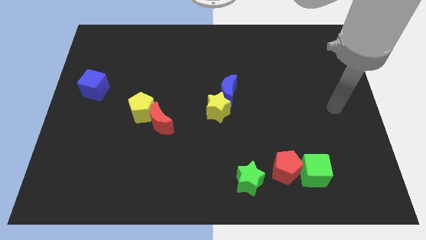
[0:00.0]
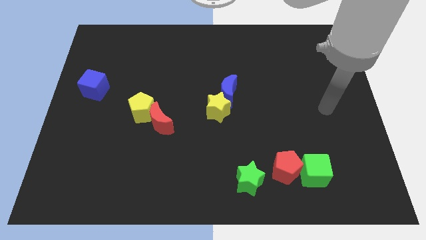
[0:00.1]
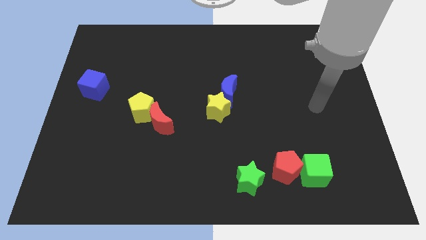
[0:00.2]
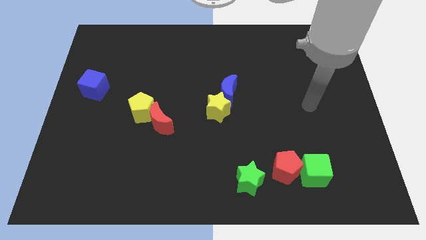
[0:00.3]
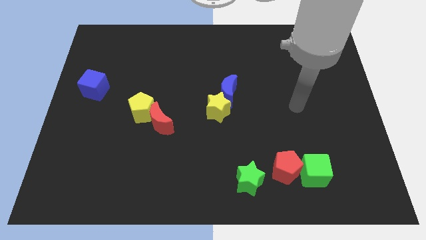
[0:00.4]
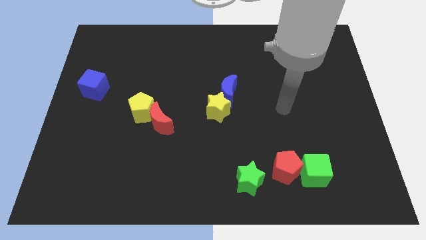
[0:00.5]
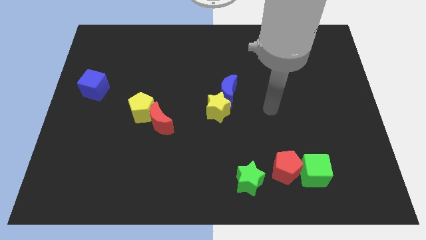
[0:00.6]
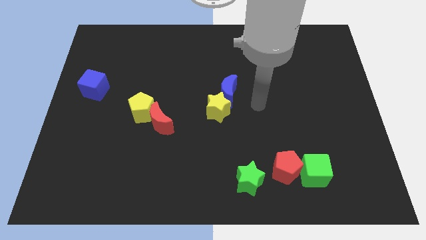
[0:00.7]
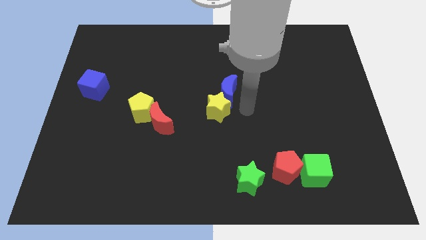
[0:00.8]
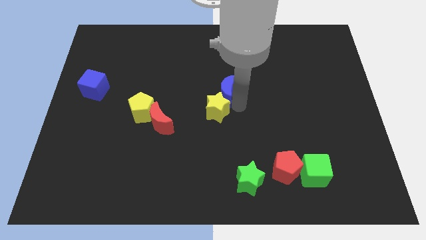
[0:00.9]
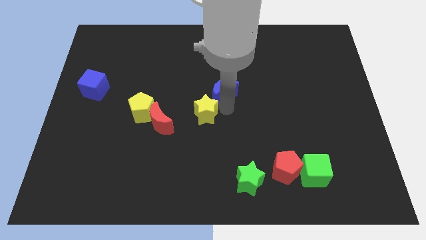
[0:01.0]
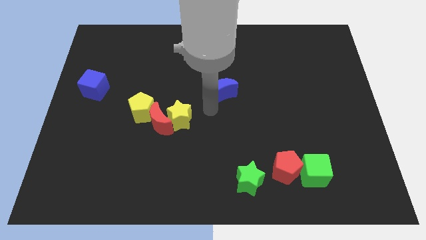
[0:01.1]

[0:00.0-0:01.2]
pull the blue moon apart from the yellow star

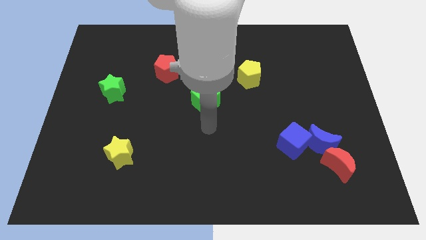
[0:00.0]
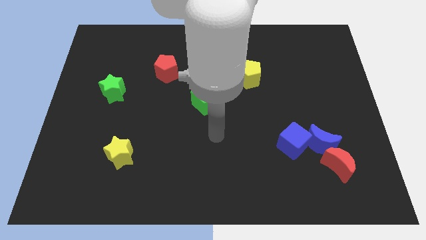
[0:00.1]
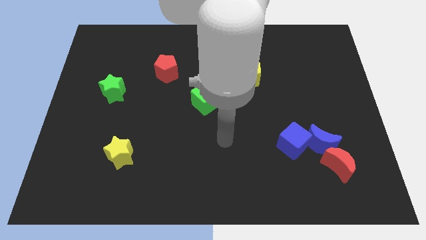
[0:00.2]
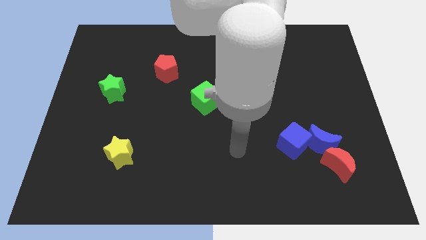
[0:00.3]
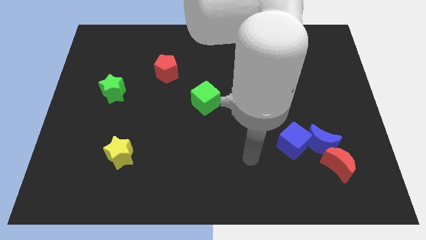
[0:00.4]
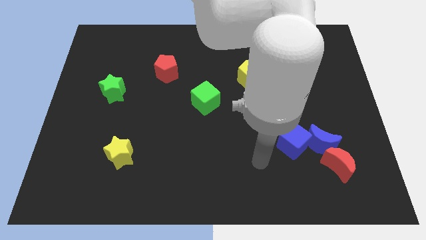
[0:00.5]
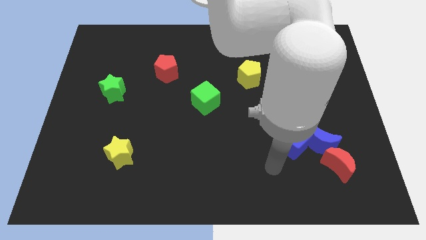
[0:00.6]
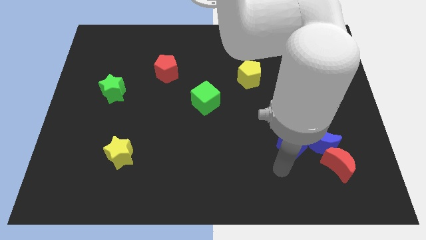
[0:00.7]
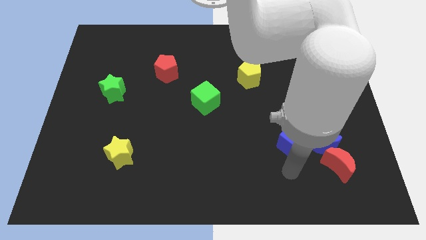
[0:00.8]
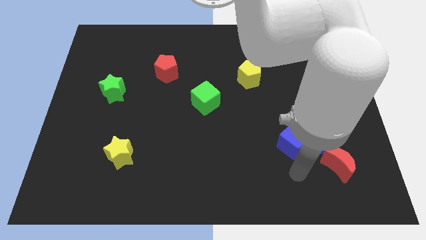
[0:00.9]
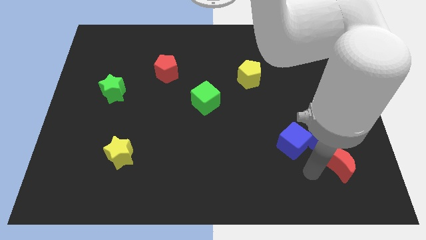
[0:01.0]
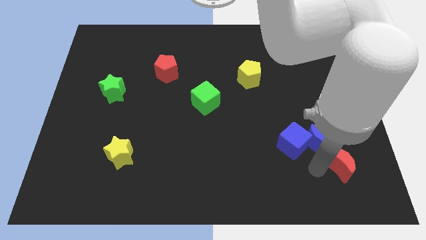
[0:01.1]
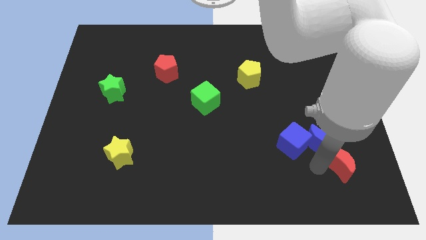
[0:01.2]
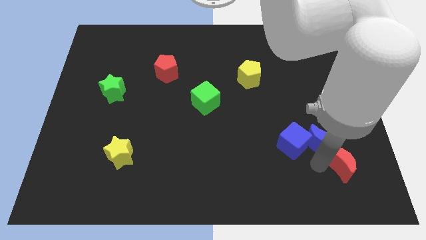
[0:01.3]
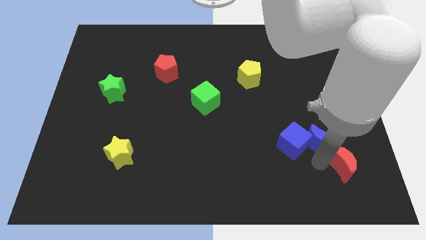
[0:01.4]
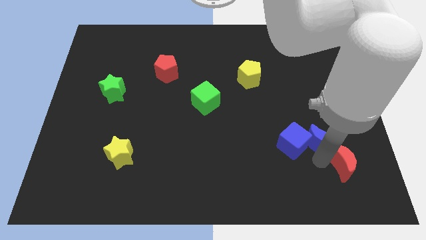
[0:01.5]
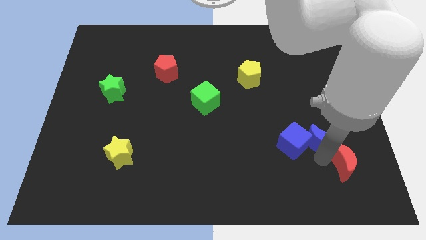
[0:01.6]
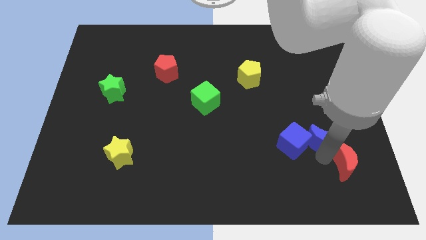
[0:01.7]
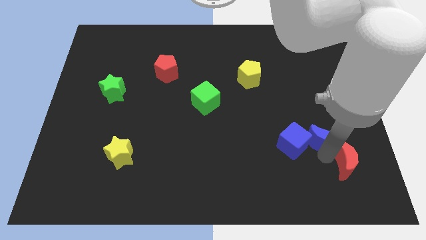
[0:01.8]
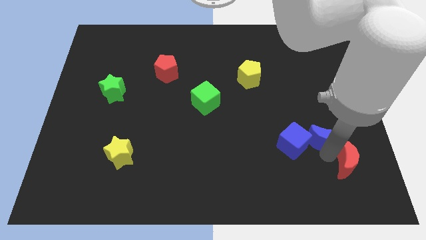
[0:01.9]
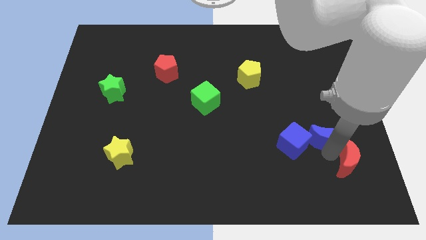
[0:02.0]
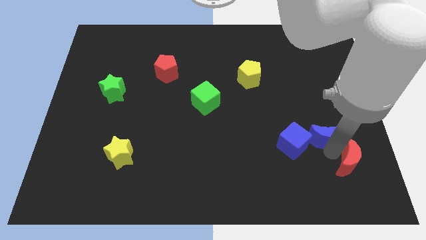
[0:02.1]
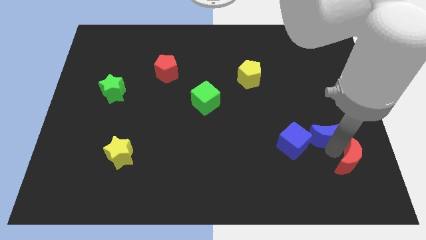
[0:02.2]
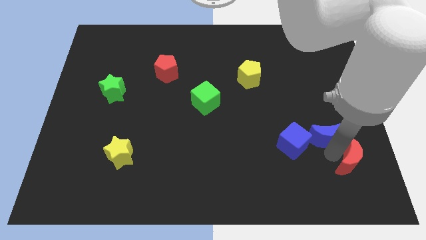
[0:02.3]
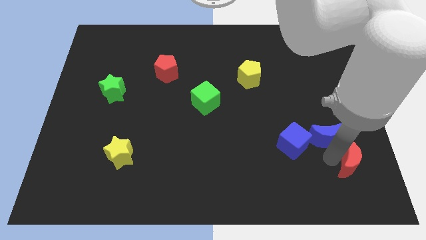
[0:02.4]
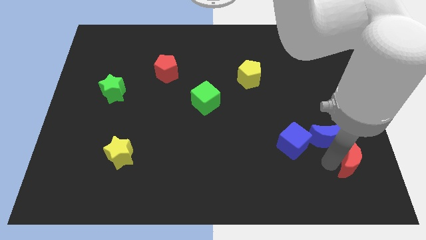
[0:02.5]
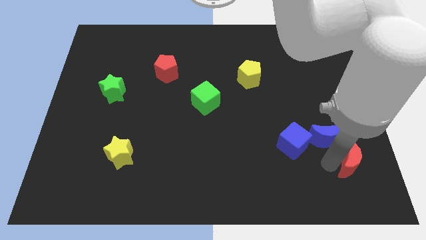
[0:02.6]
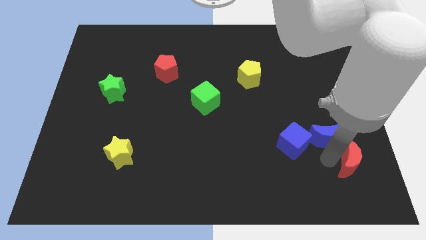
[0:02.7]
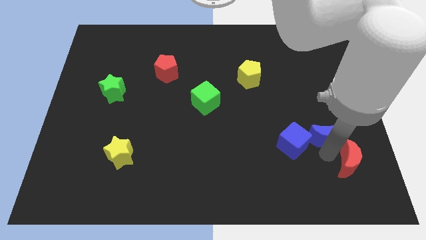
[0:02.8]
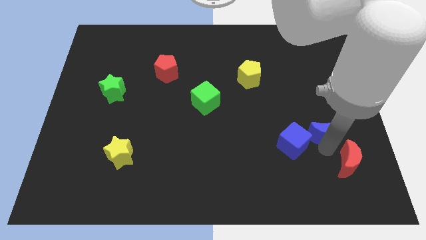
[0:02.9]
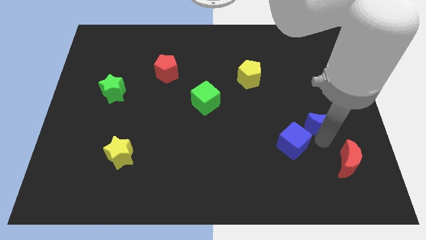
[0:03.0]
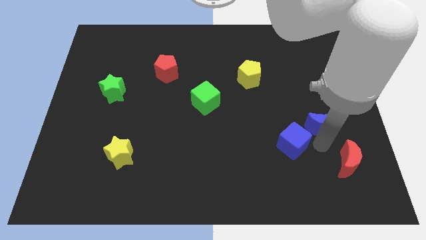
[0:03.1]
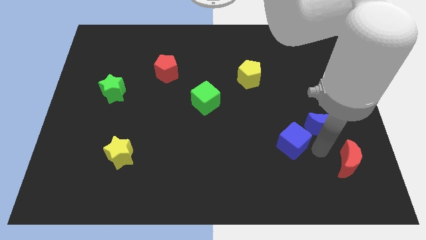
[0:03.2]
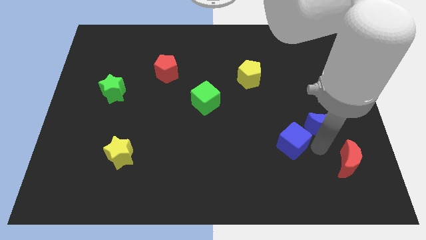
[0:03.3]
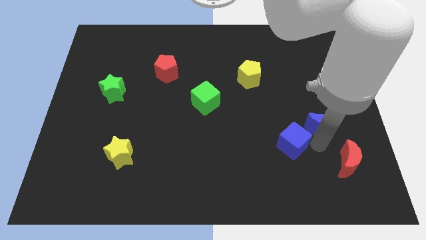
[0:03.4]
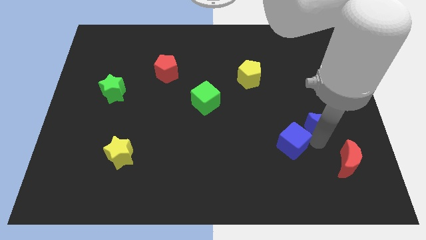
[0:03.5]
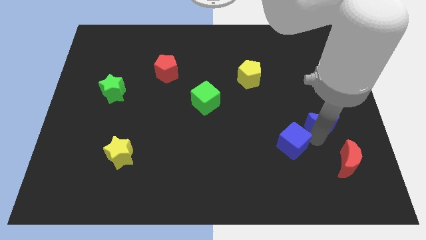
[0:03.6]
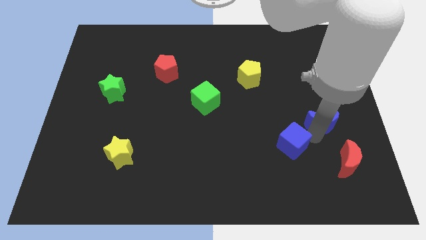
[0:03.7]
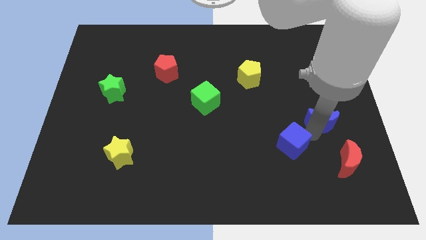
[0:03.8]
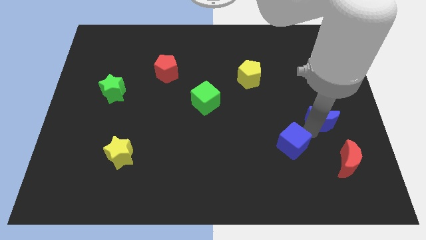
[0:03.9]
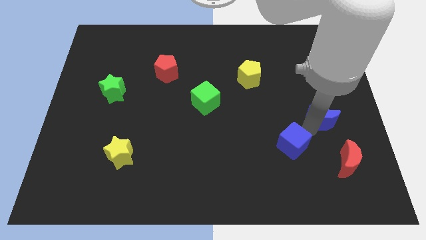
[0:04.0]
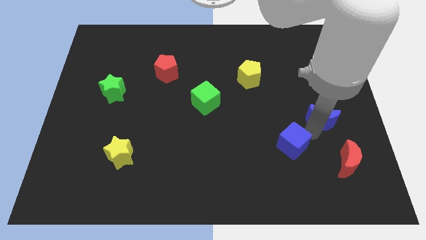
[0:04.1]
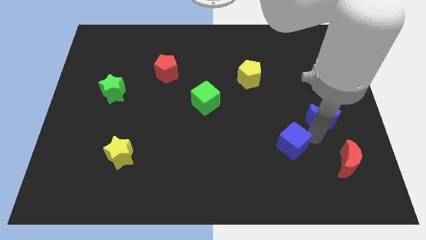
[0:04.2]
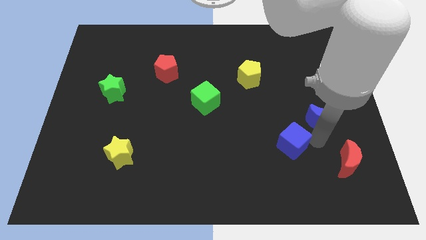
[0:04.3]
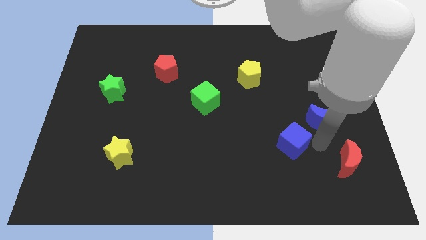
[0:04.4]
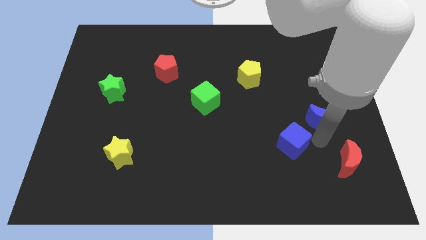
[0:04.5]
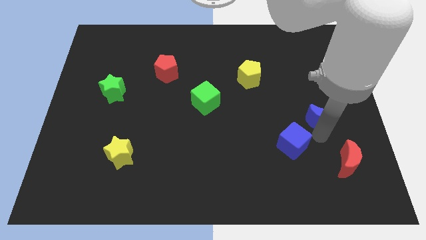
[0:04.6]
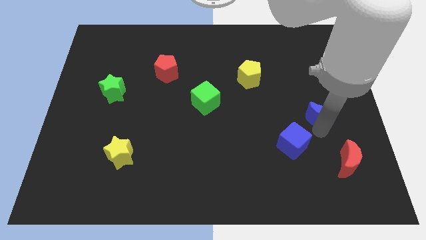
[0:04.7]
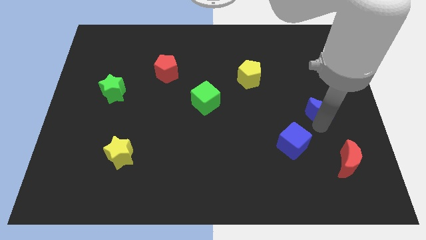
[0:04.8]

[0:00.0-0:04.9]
pull the blue moon apart from the red moon and blue cube

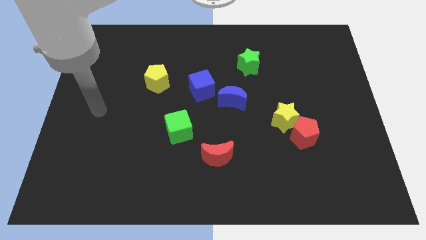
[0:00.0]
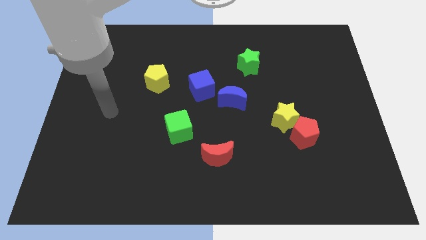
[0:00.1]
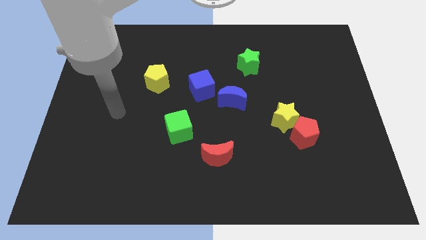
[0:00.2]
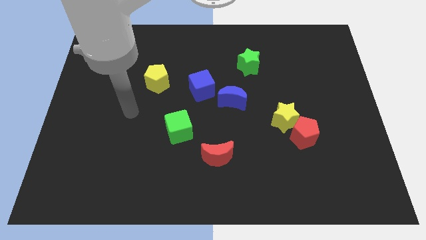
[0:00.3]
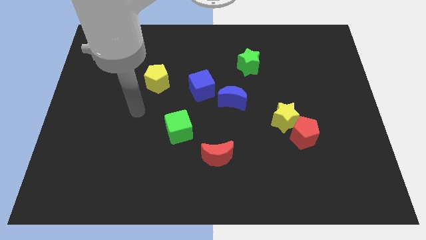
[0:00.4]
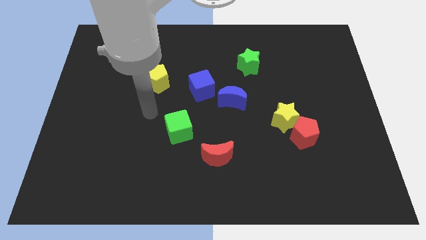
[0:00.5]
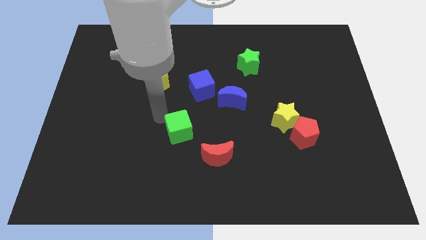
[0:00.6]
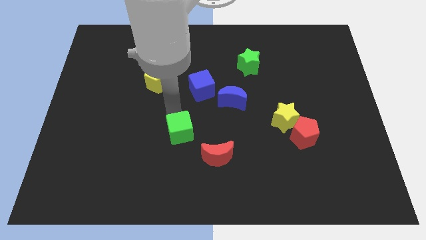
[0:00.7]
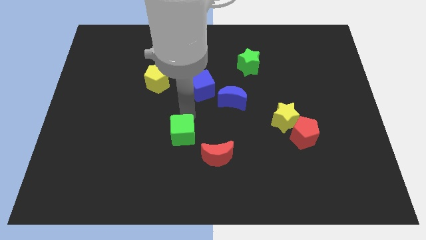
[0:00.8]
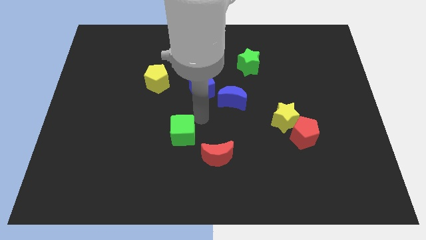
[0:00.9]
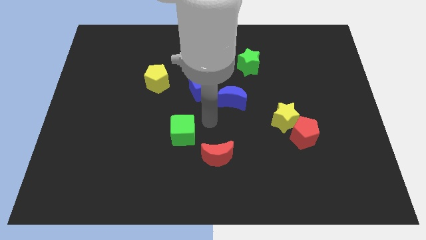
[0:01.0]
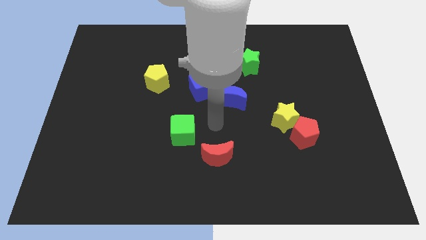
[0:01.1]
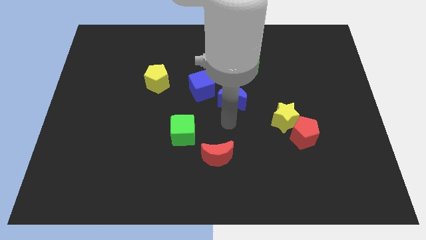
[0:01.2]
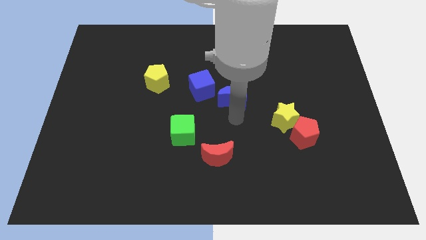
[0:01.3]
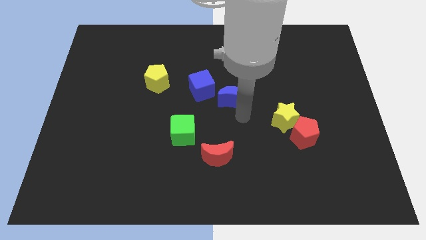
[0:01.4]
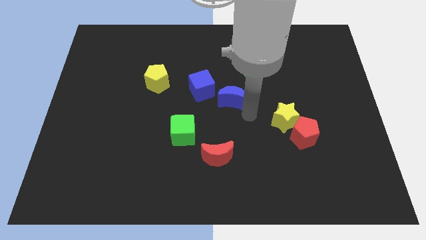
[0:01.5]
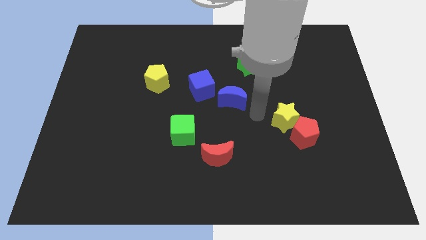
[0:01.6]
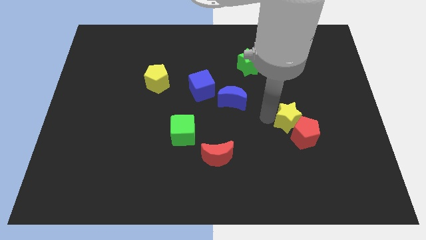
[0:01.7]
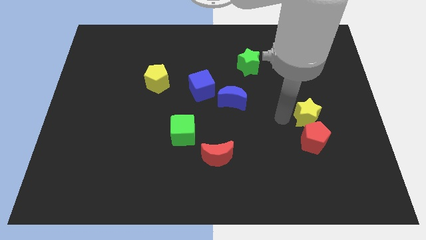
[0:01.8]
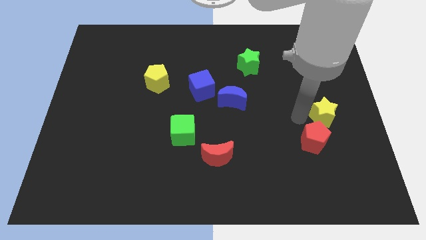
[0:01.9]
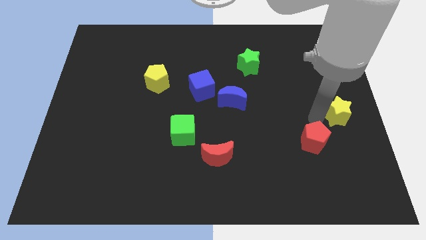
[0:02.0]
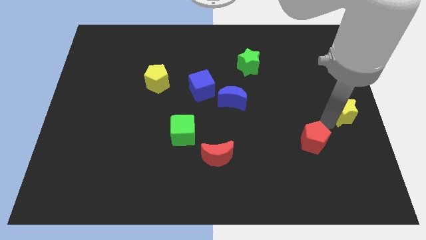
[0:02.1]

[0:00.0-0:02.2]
separate the red pentagon from the yellow star

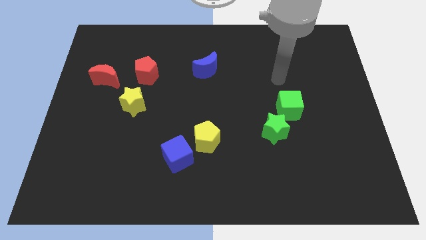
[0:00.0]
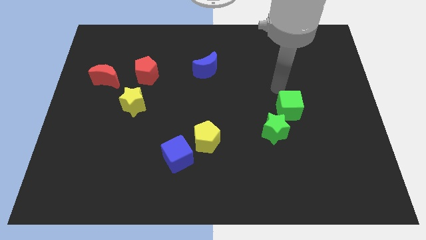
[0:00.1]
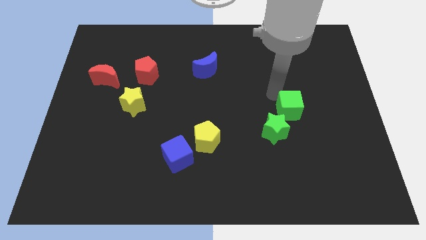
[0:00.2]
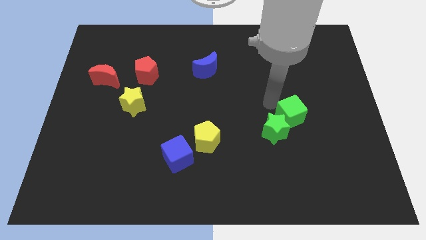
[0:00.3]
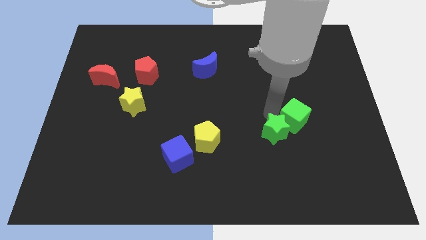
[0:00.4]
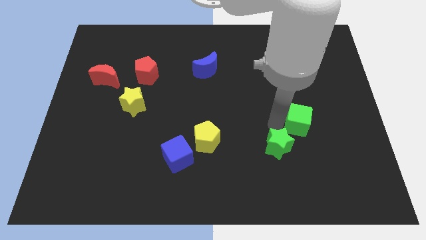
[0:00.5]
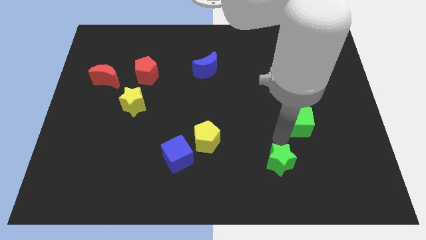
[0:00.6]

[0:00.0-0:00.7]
pull the green cube apart from the green star

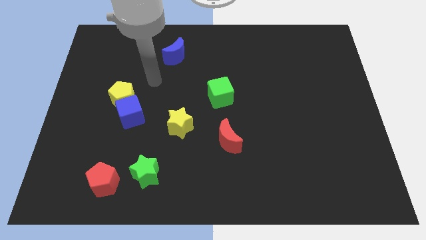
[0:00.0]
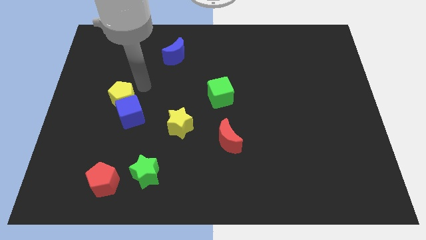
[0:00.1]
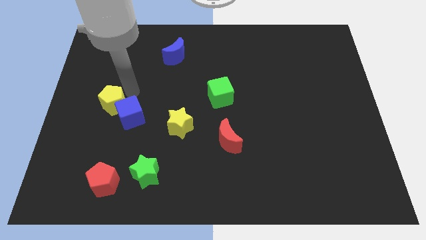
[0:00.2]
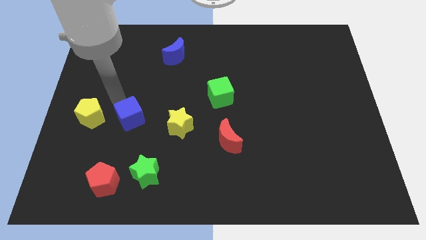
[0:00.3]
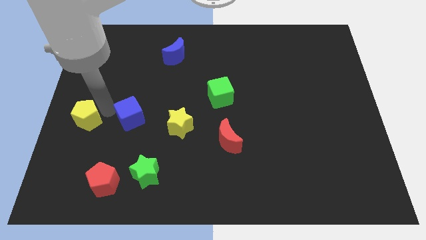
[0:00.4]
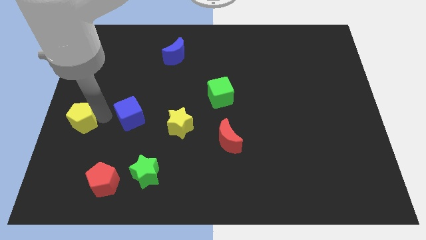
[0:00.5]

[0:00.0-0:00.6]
move the blue cube away from the yellow pentagon
